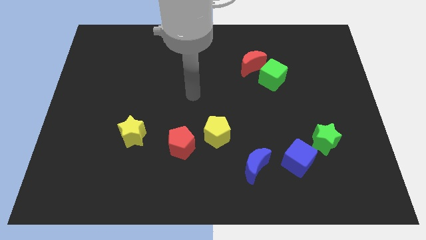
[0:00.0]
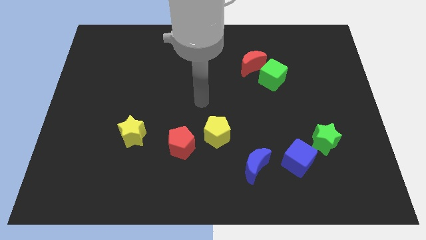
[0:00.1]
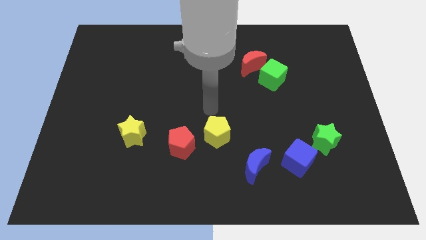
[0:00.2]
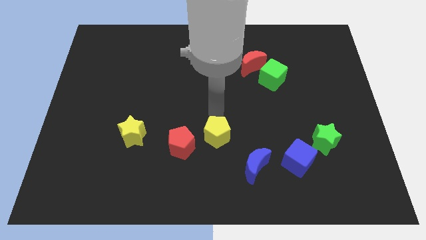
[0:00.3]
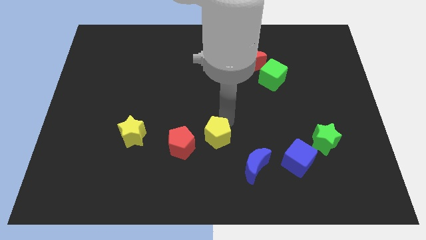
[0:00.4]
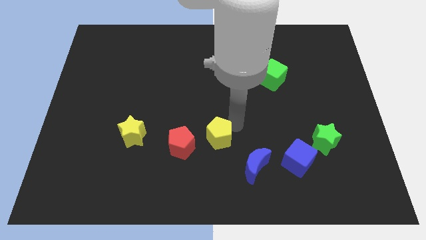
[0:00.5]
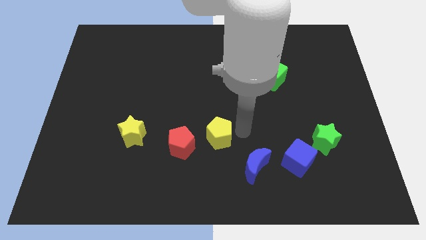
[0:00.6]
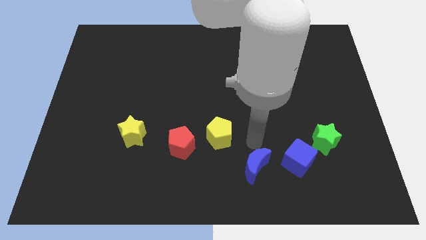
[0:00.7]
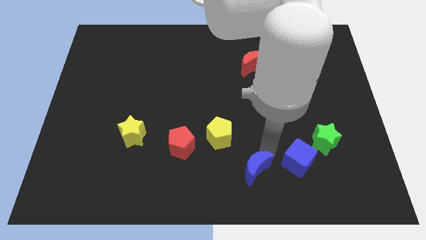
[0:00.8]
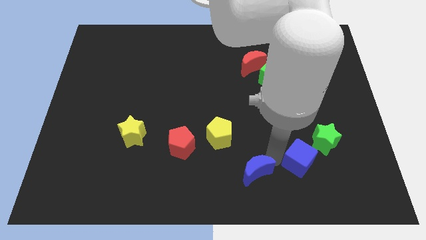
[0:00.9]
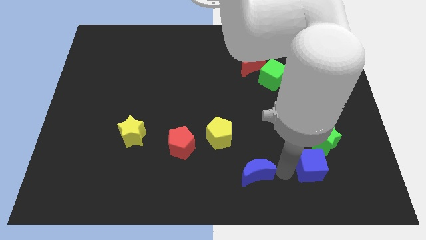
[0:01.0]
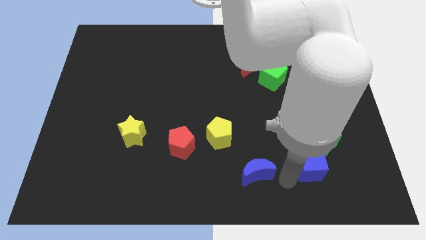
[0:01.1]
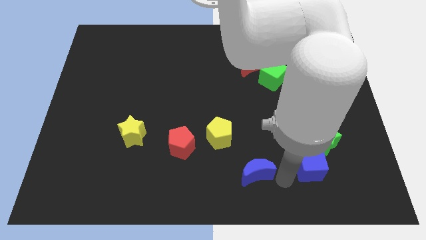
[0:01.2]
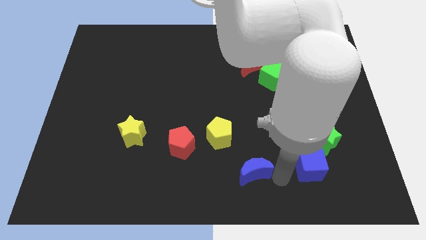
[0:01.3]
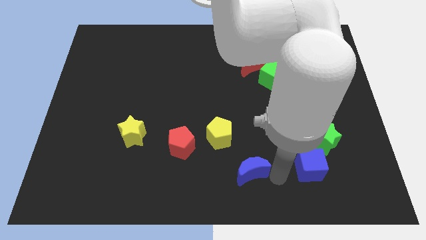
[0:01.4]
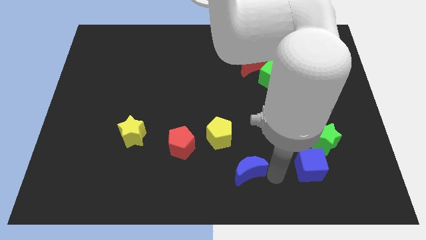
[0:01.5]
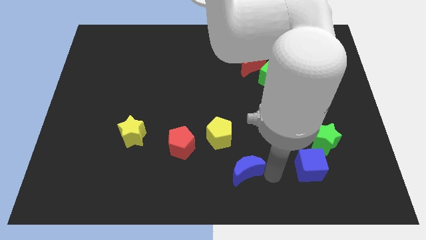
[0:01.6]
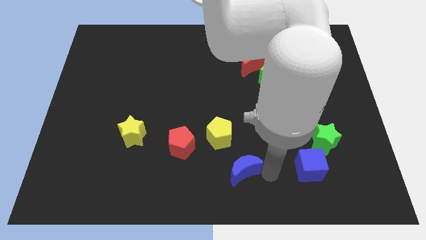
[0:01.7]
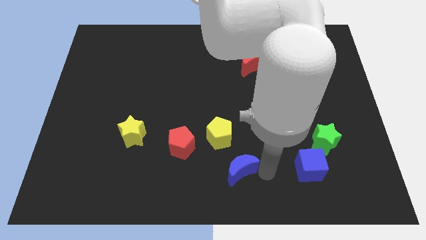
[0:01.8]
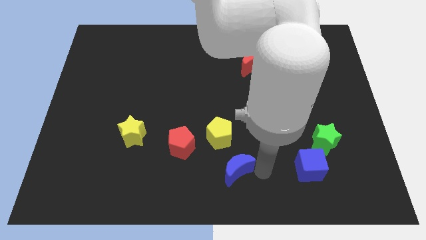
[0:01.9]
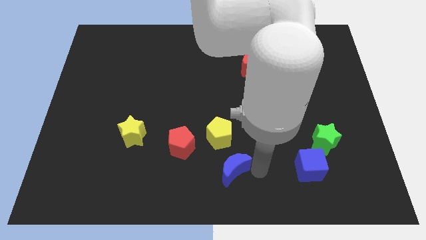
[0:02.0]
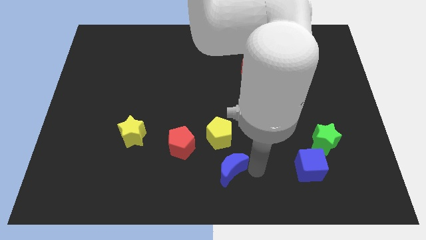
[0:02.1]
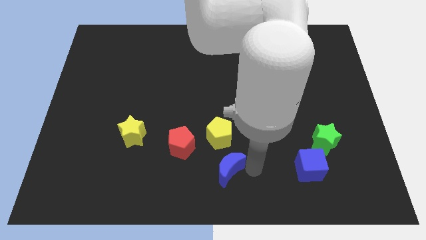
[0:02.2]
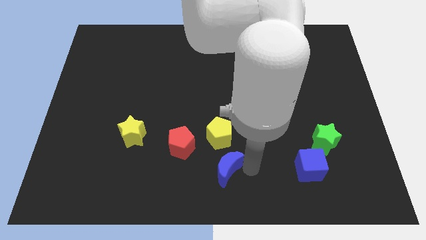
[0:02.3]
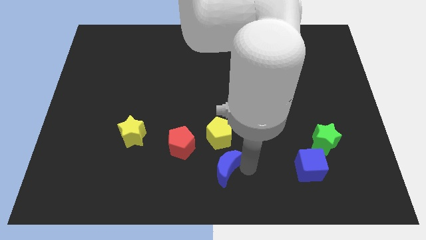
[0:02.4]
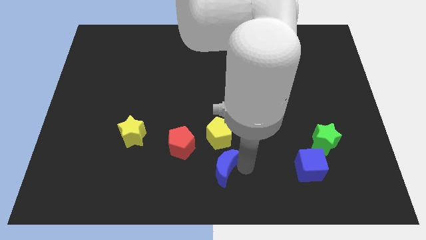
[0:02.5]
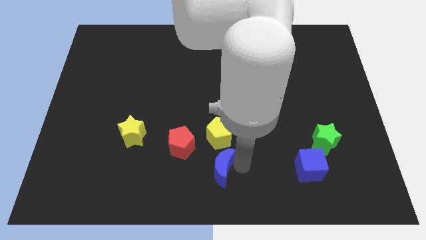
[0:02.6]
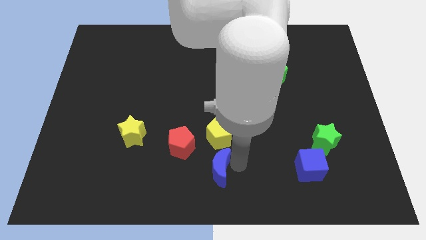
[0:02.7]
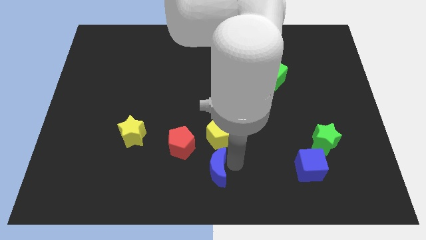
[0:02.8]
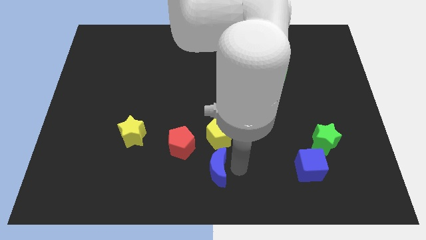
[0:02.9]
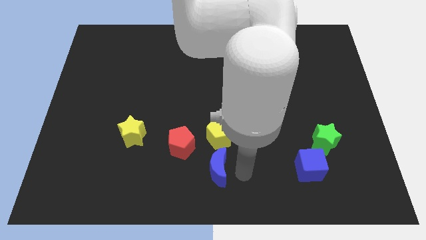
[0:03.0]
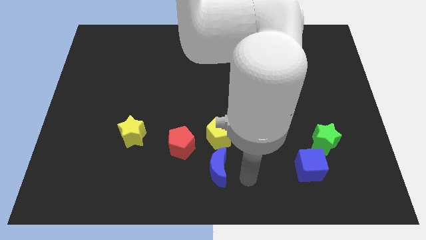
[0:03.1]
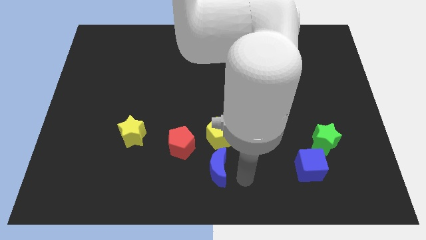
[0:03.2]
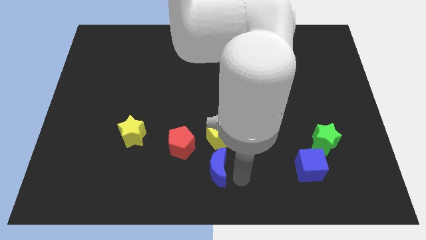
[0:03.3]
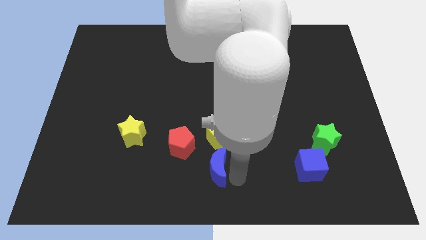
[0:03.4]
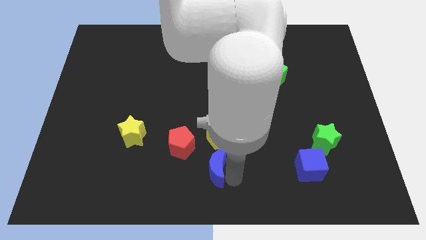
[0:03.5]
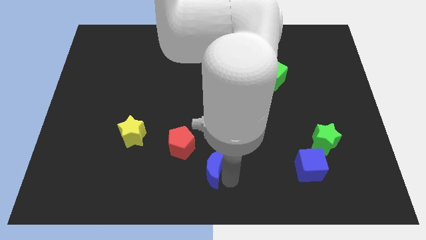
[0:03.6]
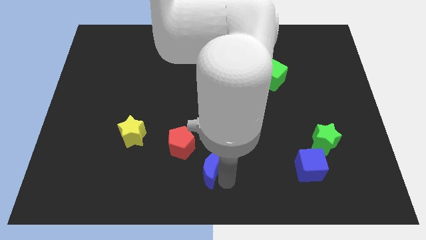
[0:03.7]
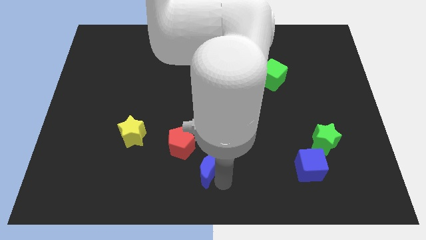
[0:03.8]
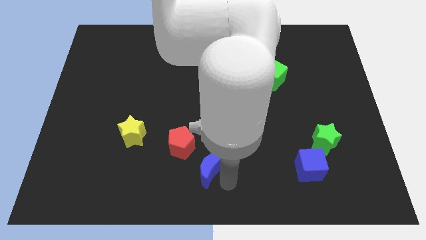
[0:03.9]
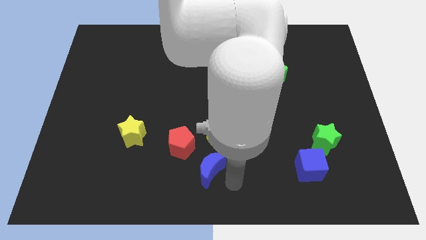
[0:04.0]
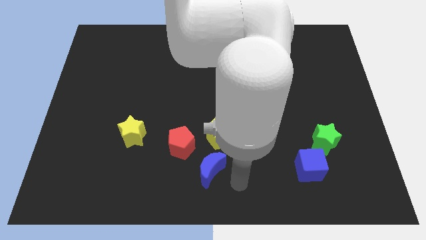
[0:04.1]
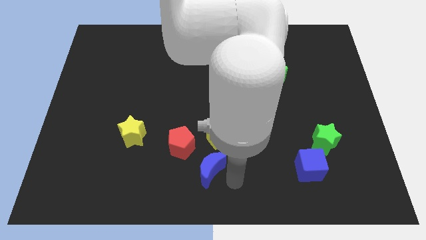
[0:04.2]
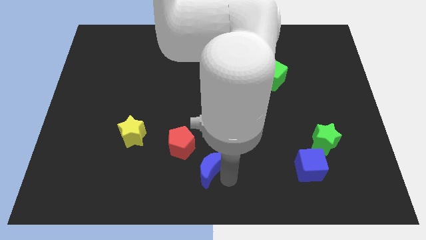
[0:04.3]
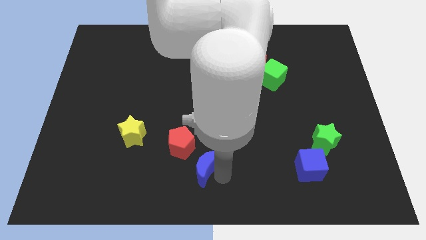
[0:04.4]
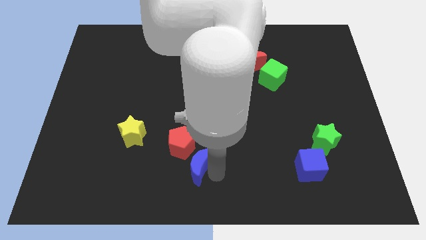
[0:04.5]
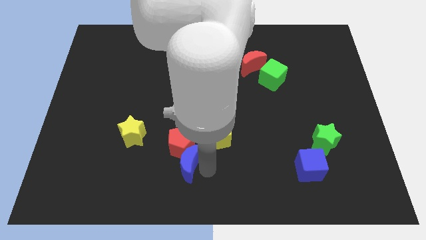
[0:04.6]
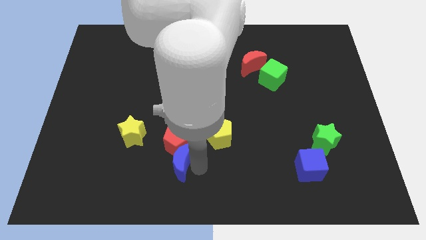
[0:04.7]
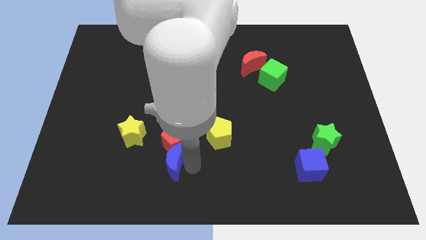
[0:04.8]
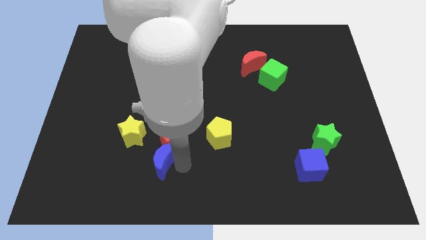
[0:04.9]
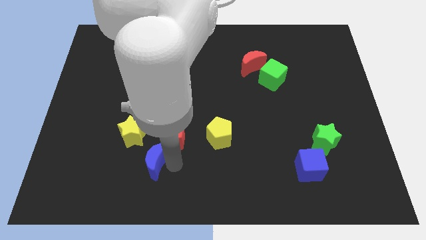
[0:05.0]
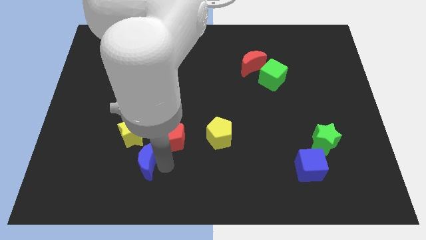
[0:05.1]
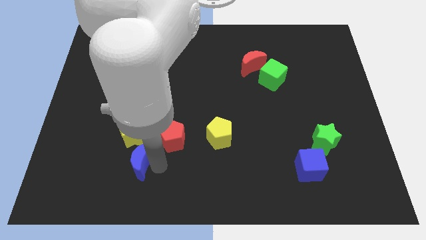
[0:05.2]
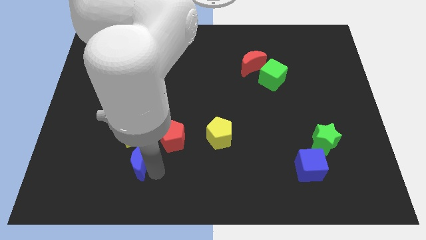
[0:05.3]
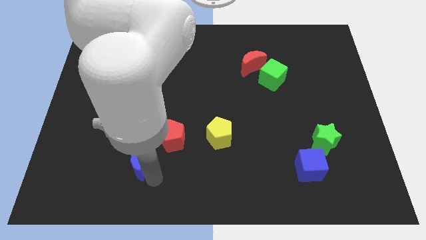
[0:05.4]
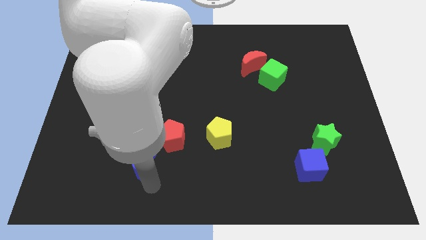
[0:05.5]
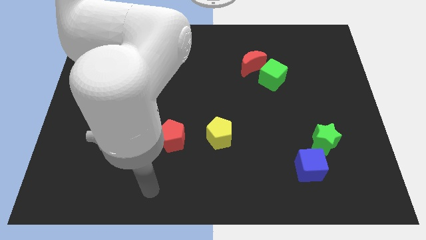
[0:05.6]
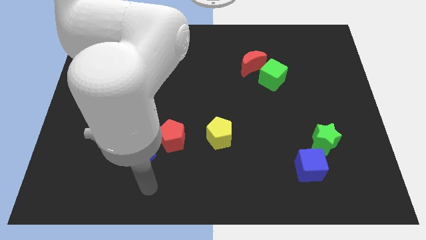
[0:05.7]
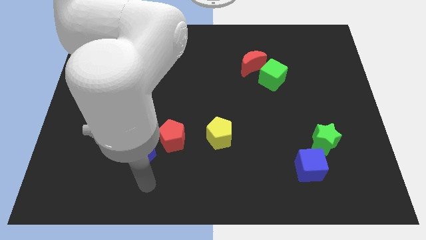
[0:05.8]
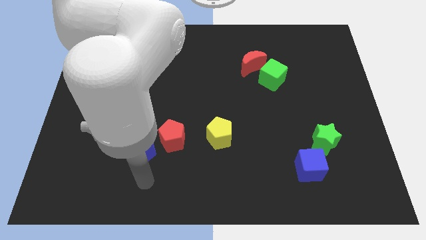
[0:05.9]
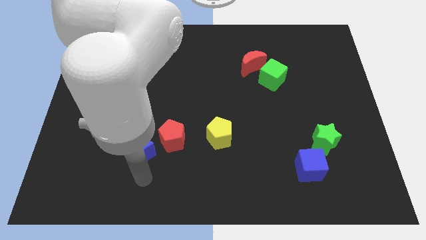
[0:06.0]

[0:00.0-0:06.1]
move the blue moon next to the yellow star

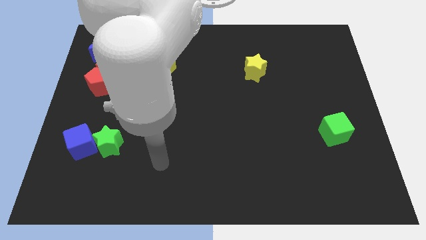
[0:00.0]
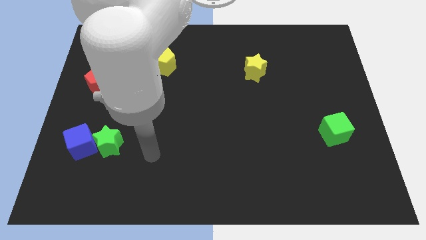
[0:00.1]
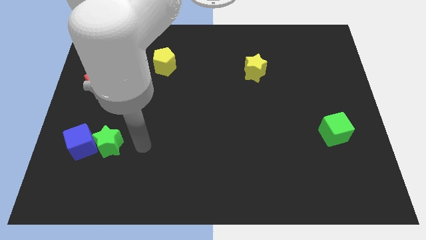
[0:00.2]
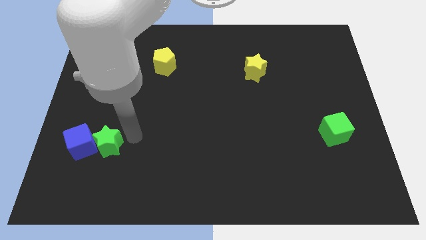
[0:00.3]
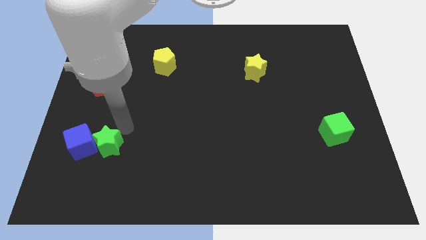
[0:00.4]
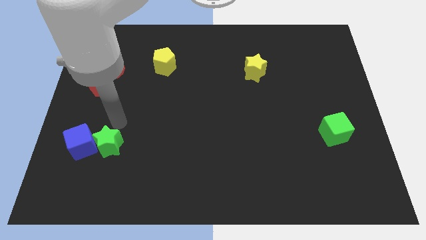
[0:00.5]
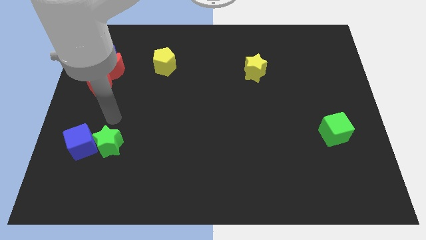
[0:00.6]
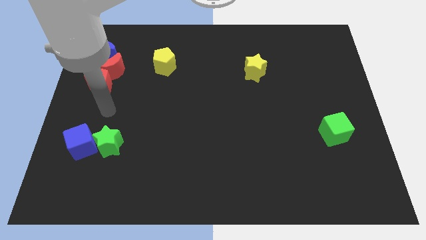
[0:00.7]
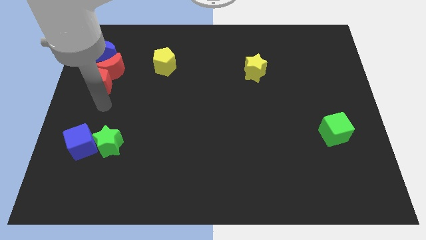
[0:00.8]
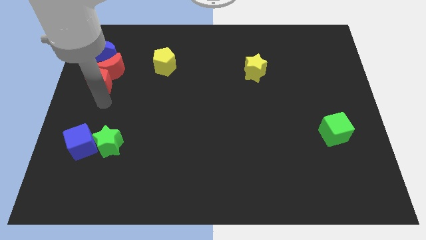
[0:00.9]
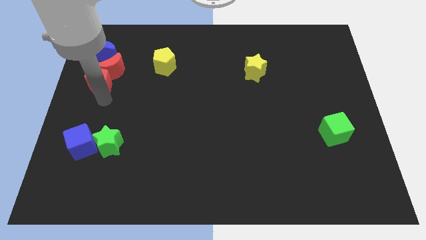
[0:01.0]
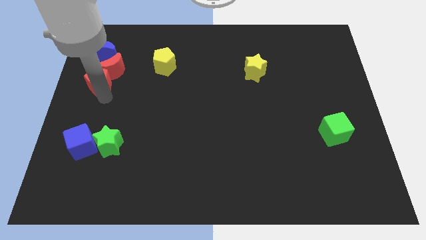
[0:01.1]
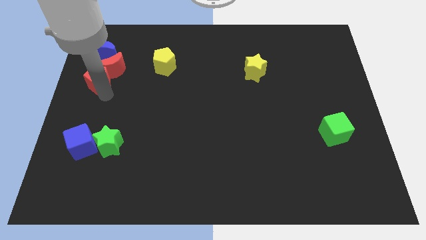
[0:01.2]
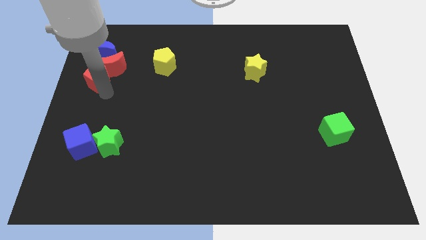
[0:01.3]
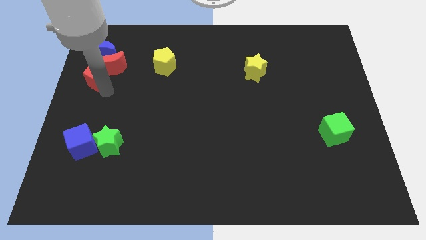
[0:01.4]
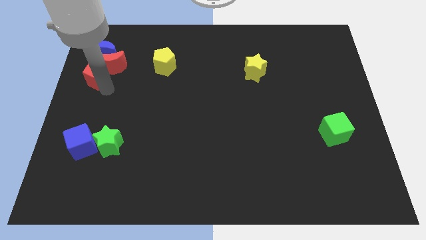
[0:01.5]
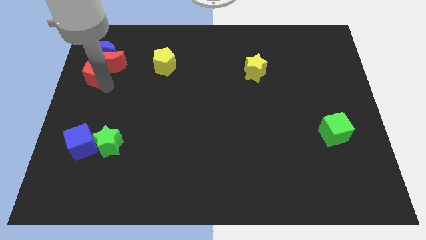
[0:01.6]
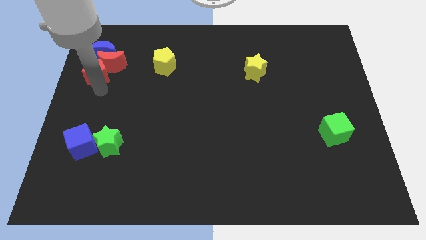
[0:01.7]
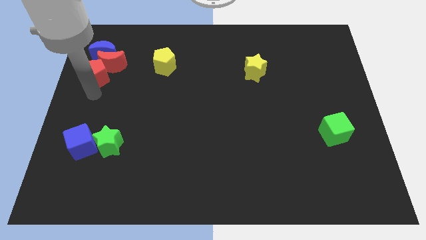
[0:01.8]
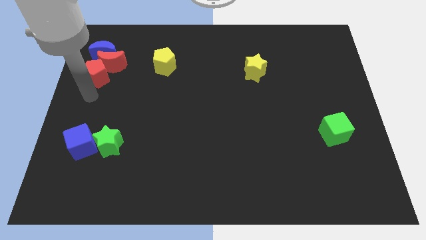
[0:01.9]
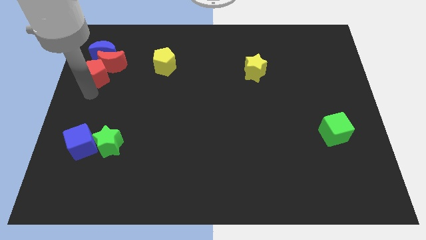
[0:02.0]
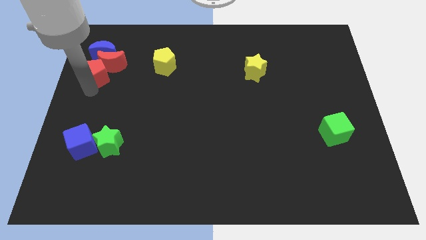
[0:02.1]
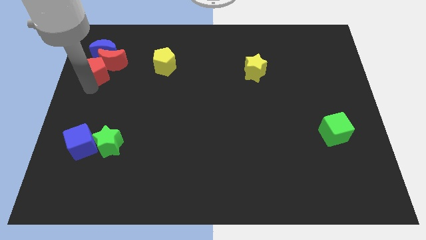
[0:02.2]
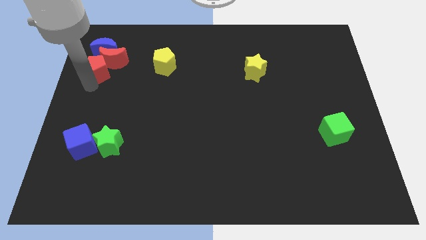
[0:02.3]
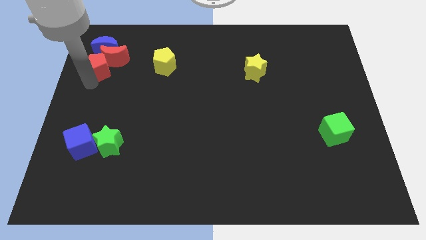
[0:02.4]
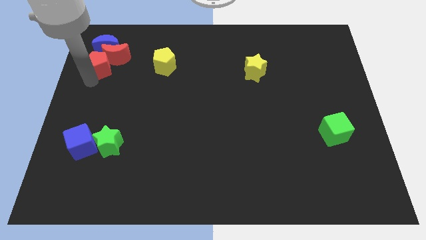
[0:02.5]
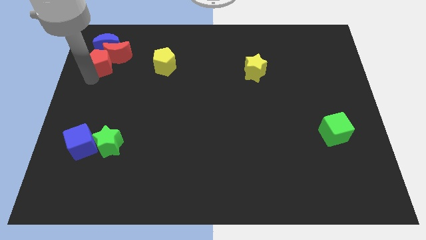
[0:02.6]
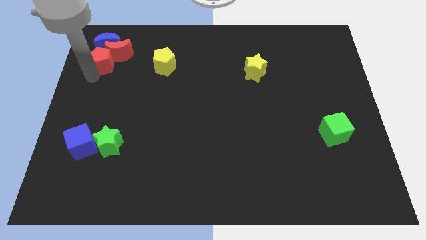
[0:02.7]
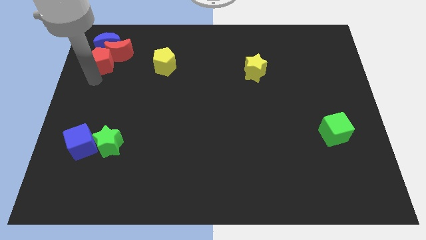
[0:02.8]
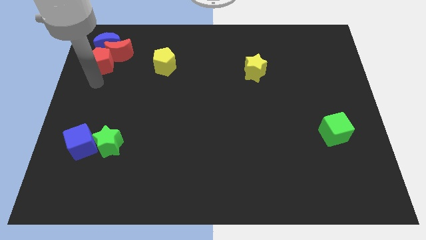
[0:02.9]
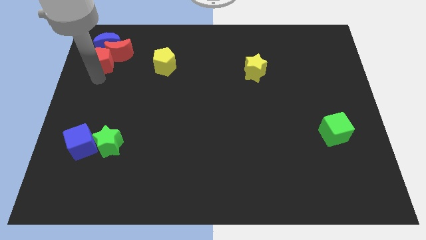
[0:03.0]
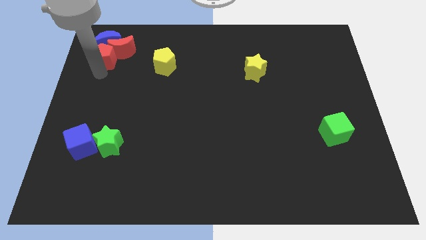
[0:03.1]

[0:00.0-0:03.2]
put the red pentagon next to the blue moon
